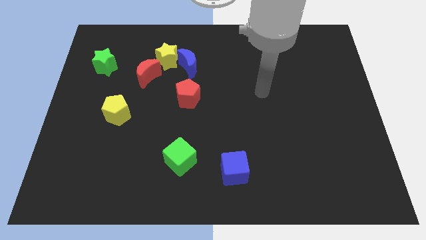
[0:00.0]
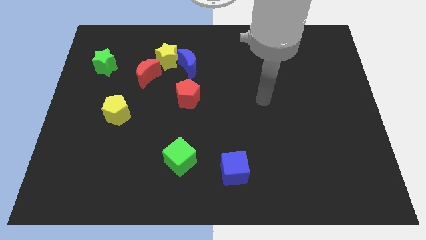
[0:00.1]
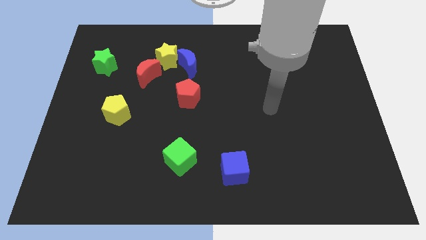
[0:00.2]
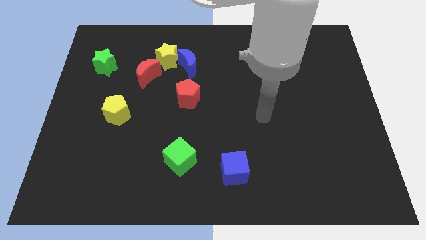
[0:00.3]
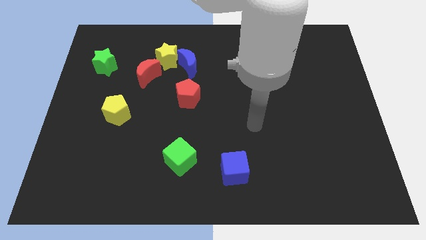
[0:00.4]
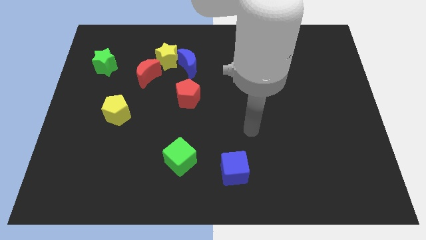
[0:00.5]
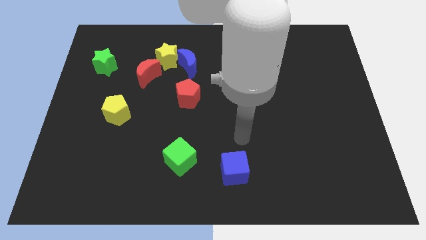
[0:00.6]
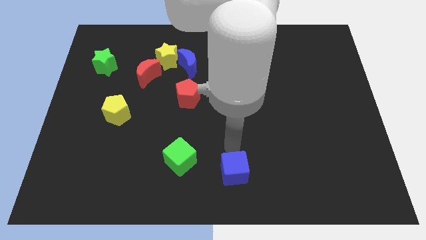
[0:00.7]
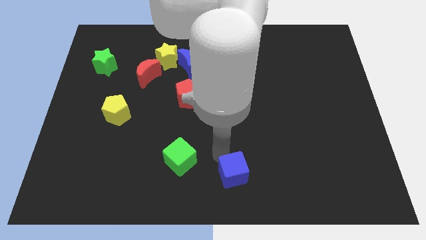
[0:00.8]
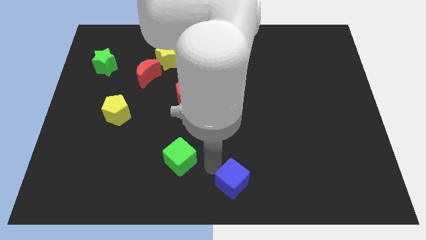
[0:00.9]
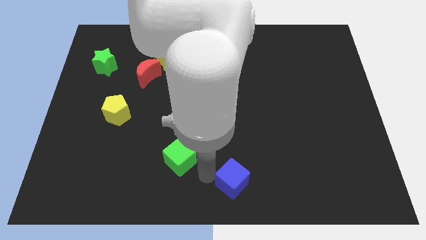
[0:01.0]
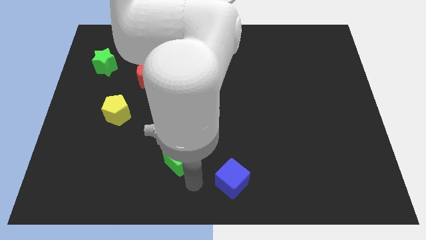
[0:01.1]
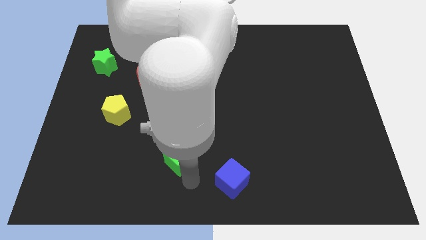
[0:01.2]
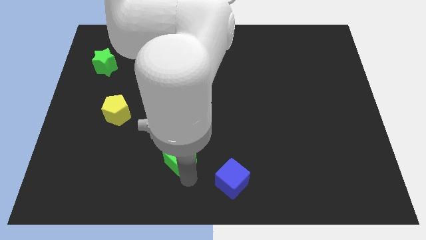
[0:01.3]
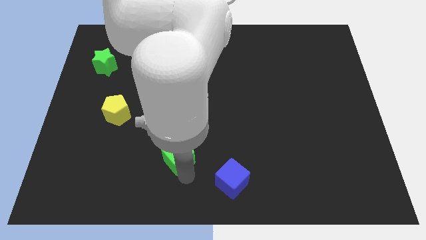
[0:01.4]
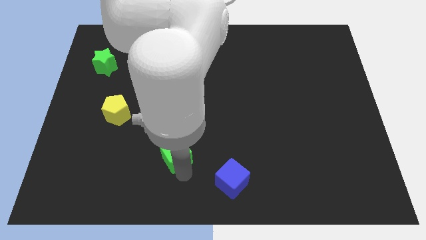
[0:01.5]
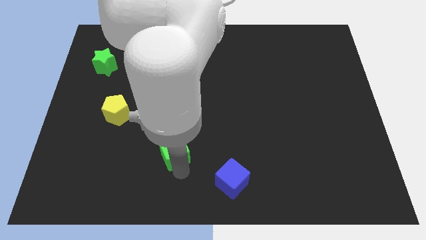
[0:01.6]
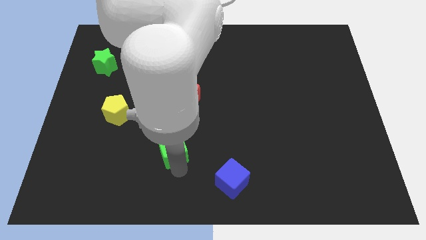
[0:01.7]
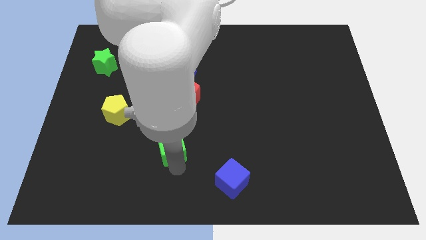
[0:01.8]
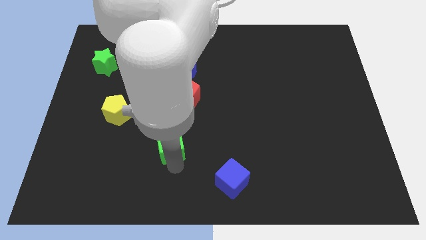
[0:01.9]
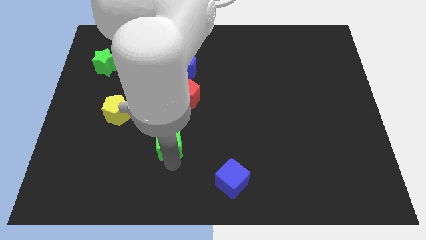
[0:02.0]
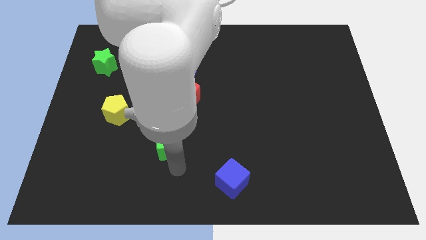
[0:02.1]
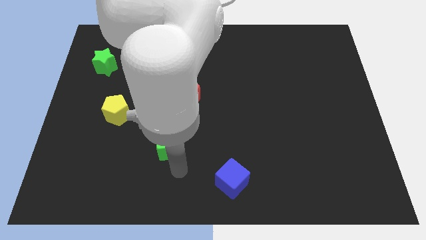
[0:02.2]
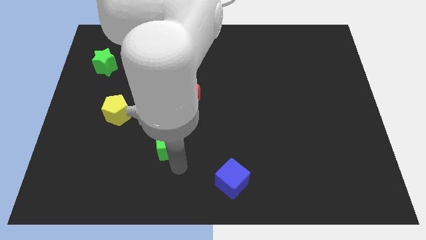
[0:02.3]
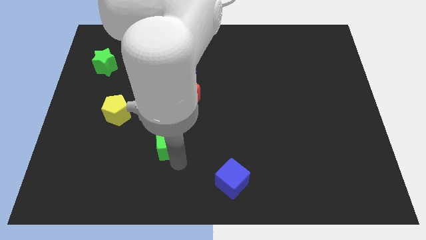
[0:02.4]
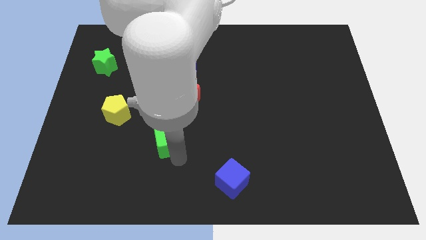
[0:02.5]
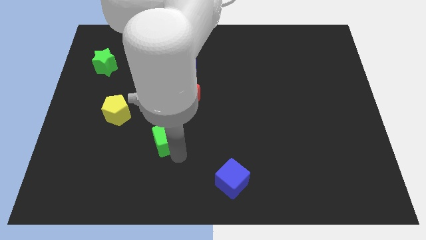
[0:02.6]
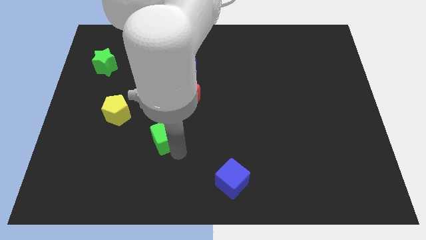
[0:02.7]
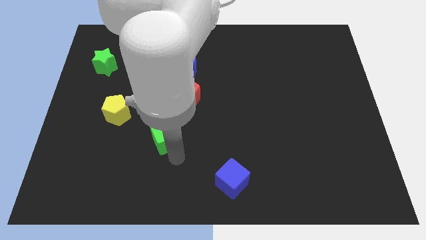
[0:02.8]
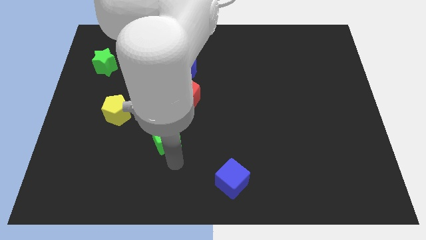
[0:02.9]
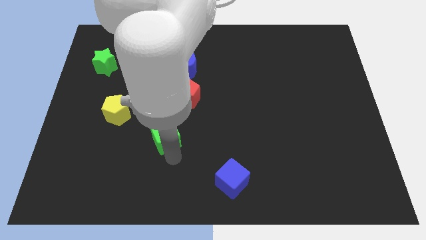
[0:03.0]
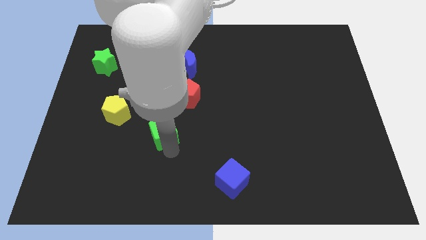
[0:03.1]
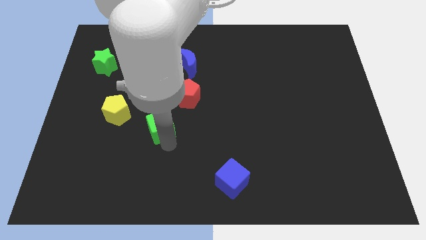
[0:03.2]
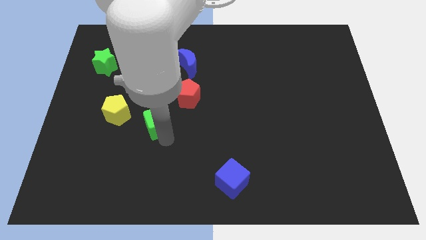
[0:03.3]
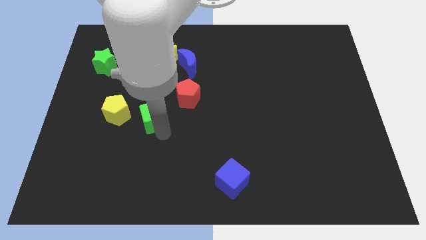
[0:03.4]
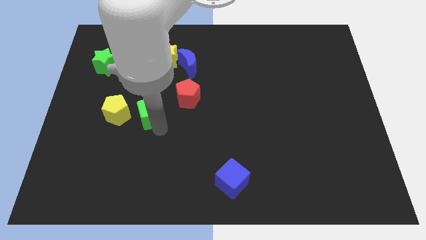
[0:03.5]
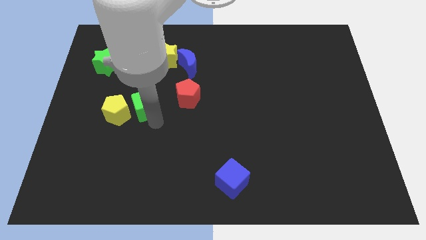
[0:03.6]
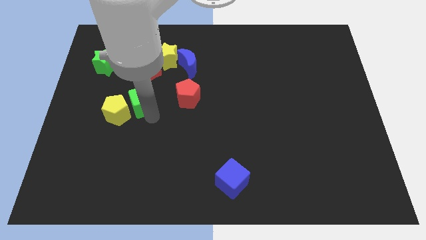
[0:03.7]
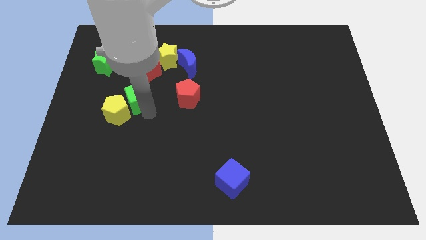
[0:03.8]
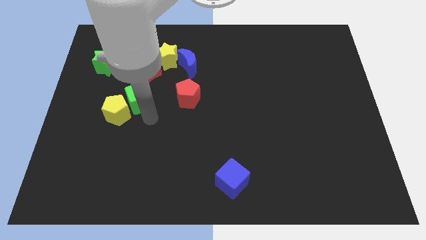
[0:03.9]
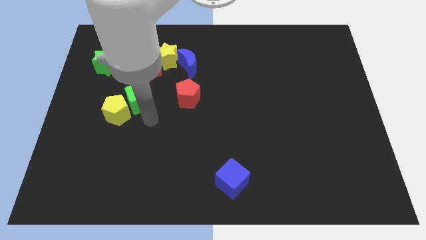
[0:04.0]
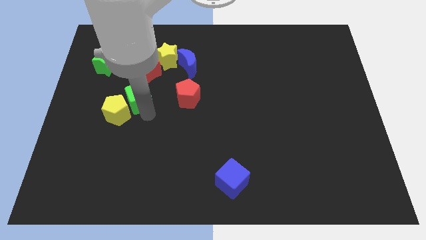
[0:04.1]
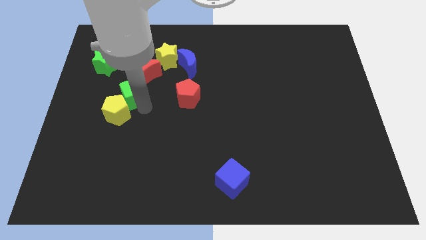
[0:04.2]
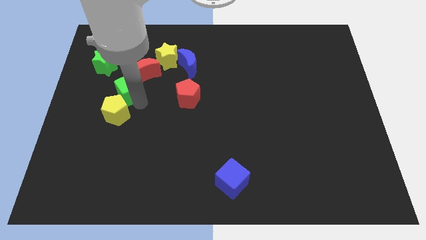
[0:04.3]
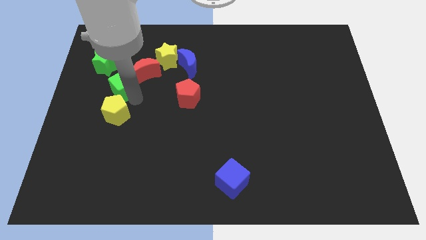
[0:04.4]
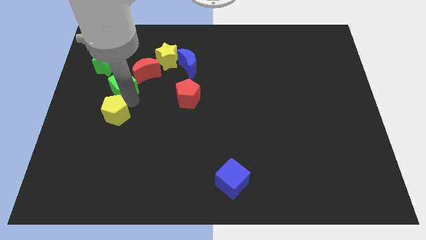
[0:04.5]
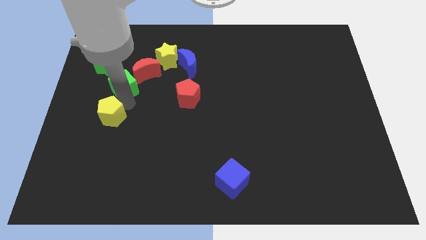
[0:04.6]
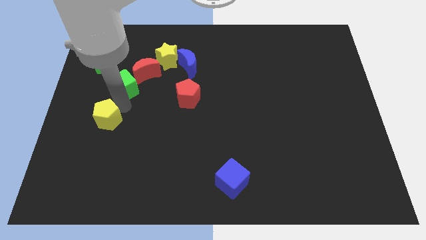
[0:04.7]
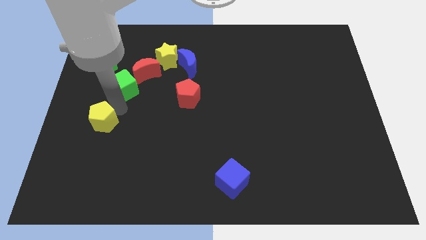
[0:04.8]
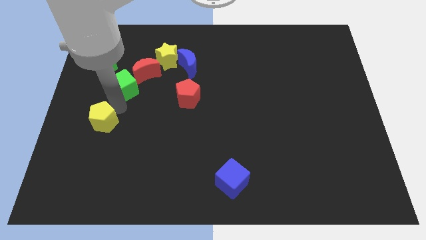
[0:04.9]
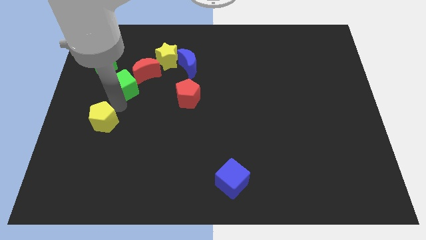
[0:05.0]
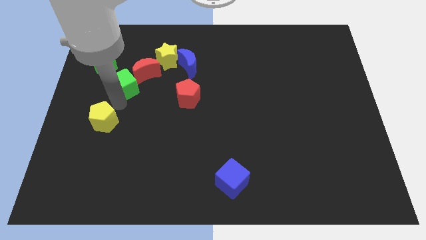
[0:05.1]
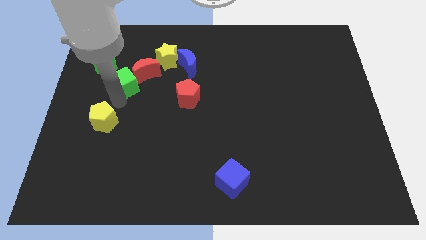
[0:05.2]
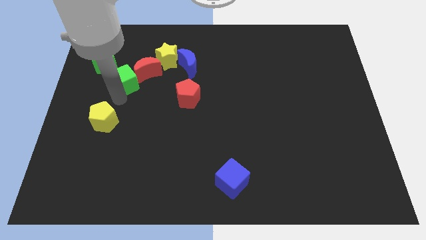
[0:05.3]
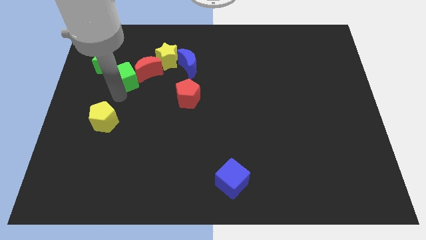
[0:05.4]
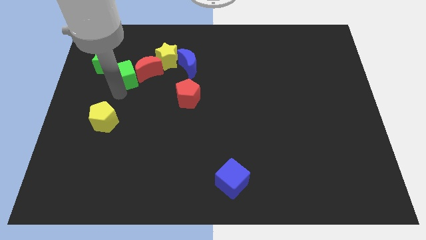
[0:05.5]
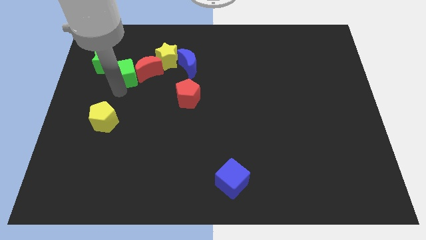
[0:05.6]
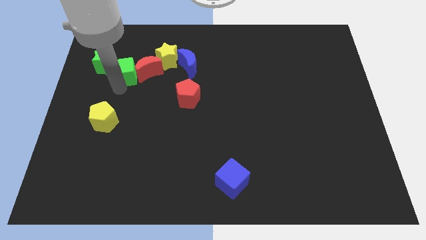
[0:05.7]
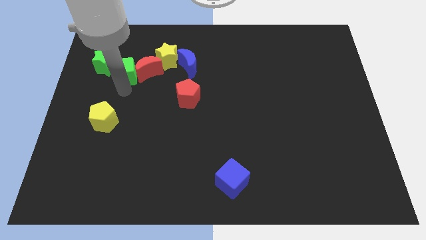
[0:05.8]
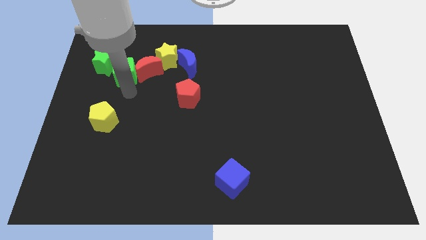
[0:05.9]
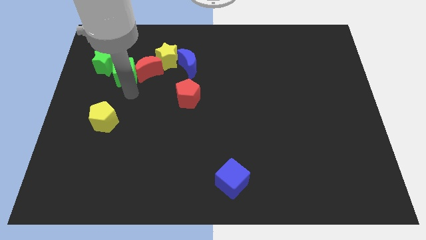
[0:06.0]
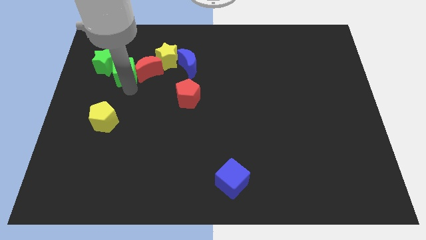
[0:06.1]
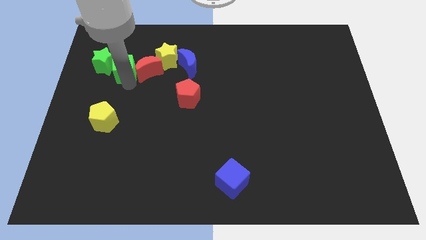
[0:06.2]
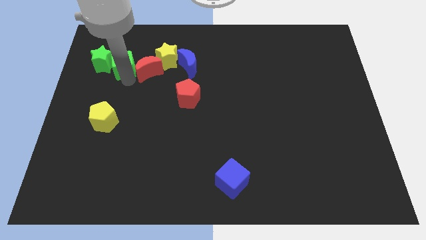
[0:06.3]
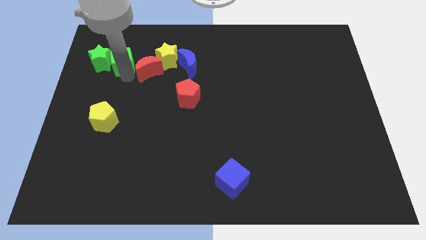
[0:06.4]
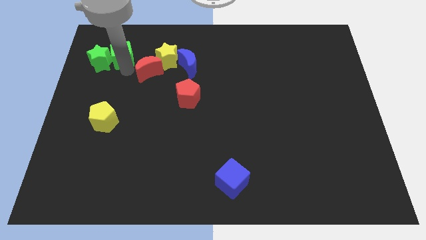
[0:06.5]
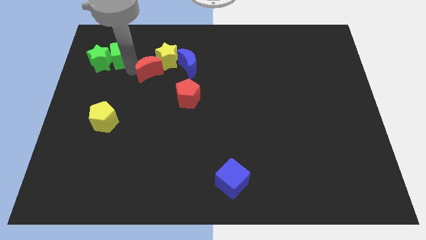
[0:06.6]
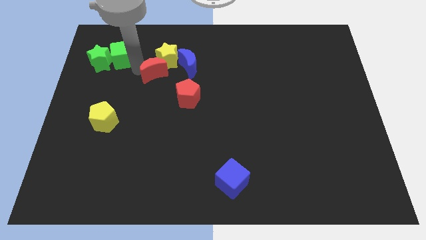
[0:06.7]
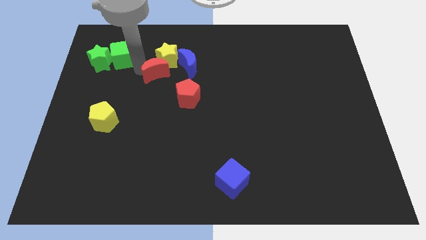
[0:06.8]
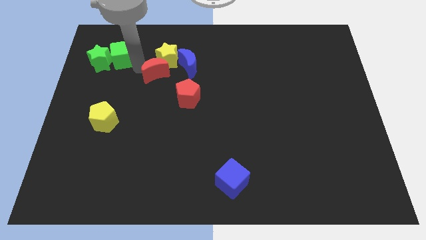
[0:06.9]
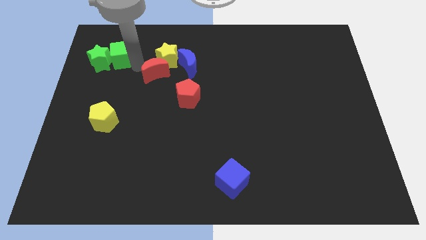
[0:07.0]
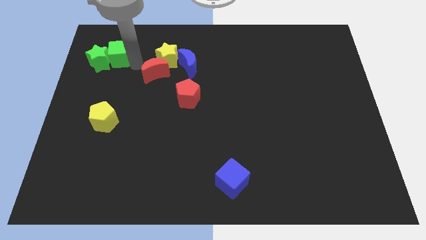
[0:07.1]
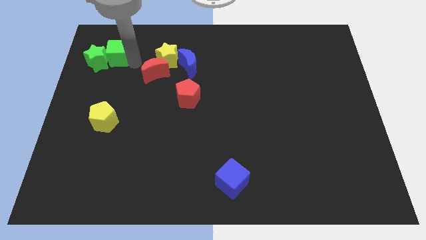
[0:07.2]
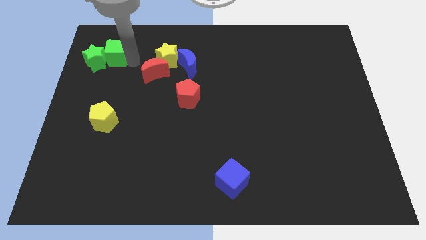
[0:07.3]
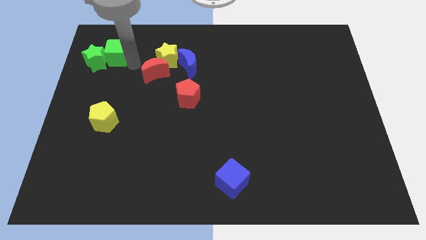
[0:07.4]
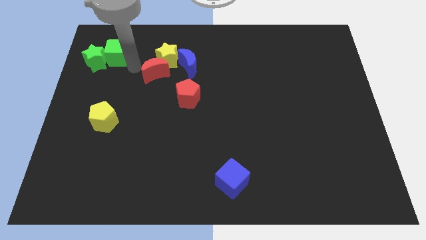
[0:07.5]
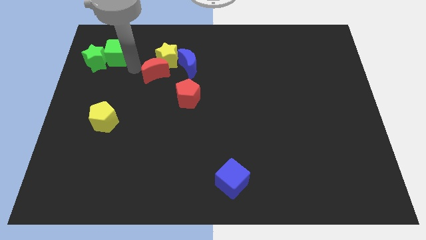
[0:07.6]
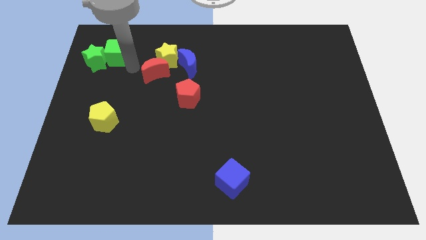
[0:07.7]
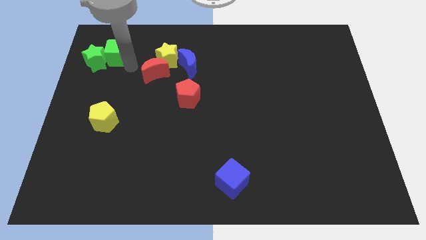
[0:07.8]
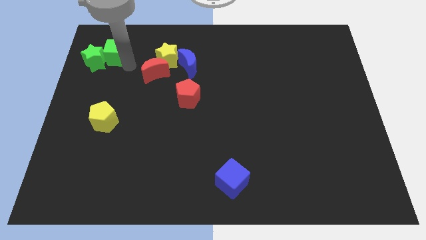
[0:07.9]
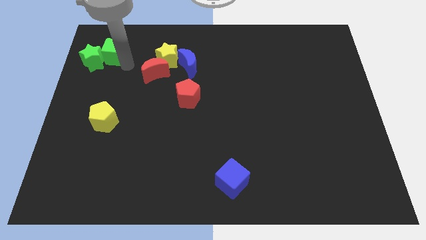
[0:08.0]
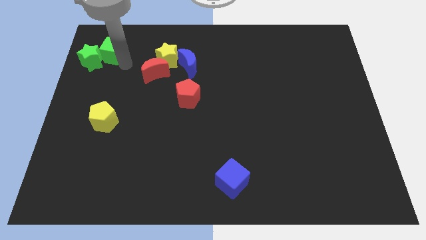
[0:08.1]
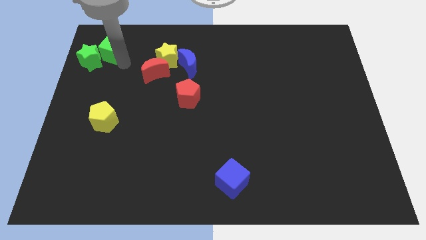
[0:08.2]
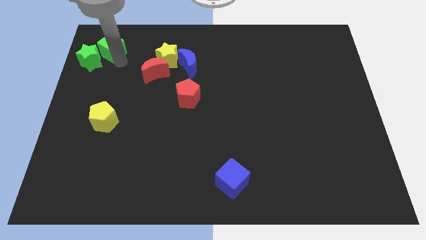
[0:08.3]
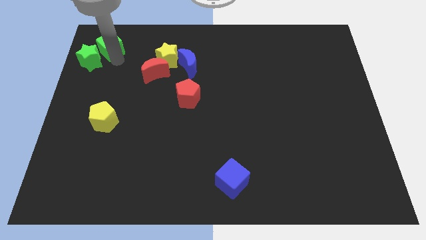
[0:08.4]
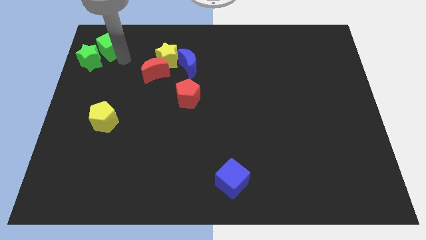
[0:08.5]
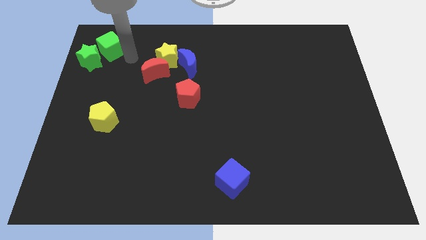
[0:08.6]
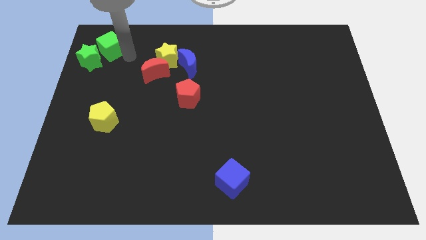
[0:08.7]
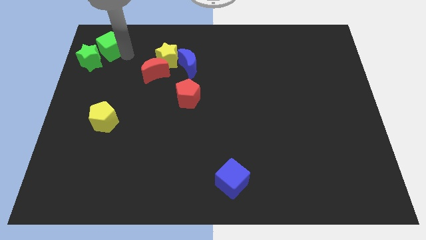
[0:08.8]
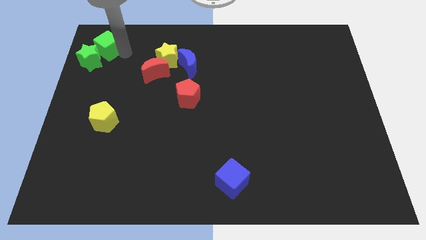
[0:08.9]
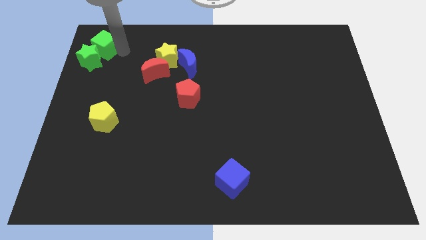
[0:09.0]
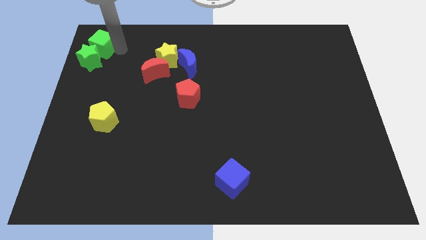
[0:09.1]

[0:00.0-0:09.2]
slide the green cube to the upper left corner
